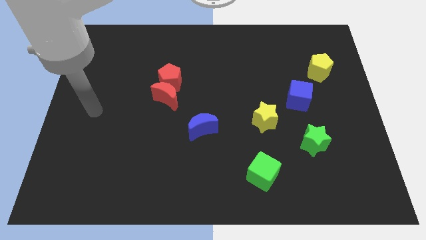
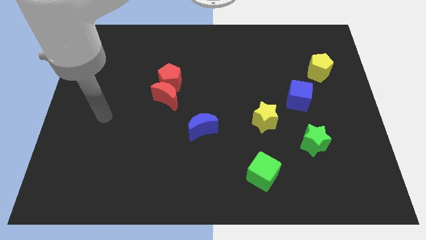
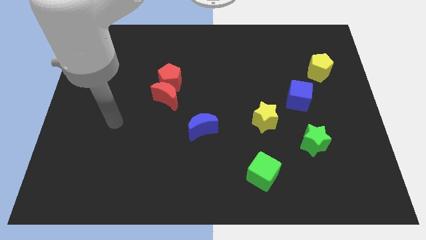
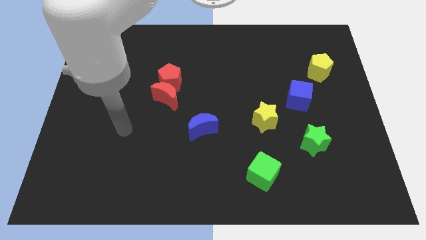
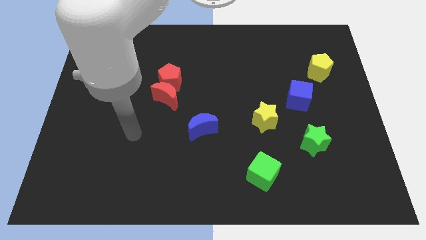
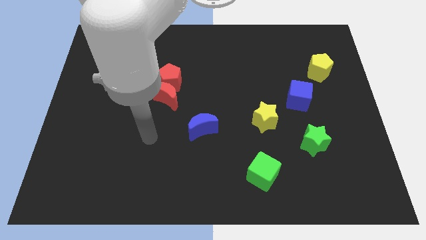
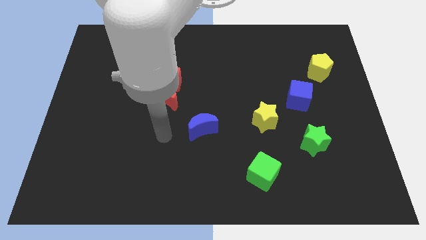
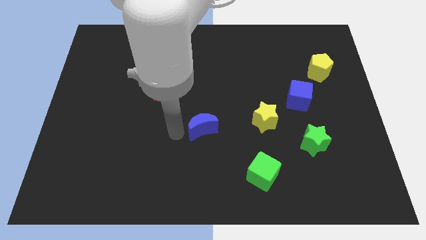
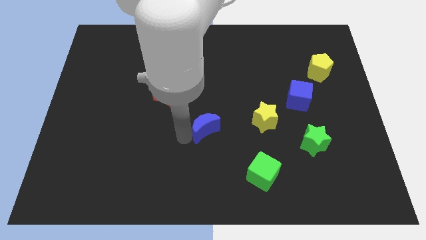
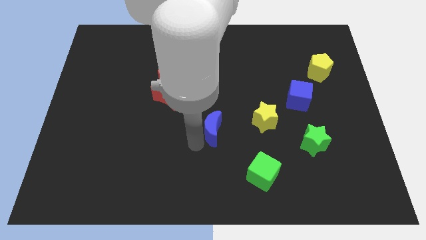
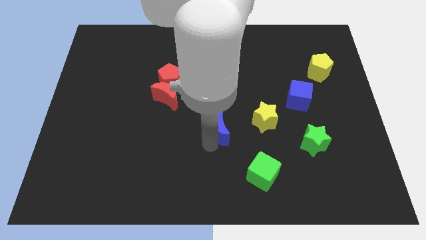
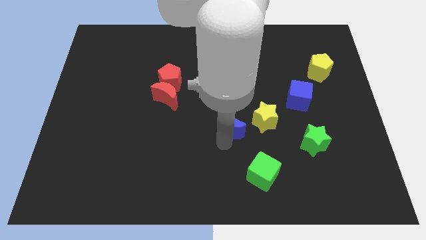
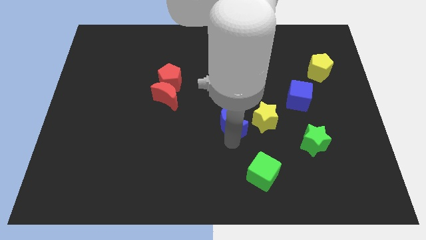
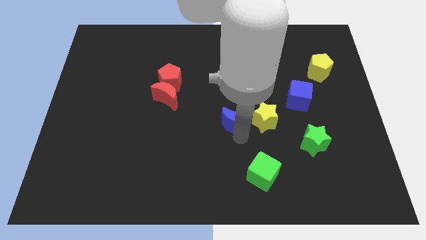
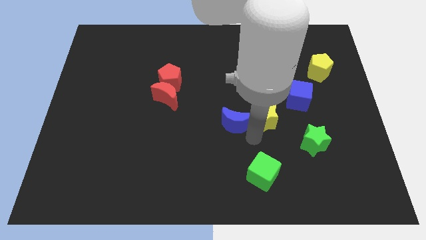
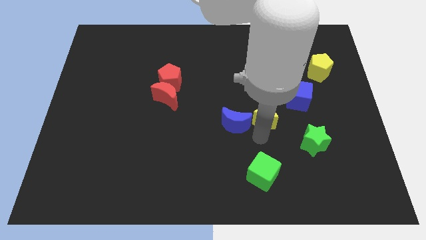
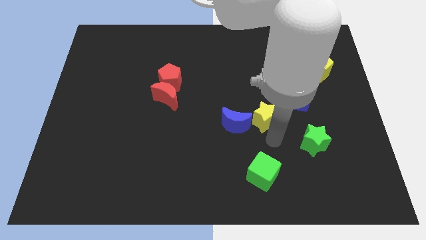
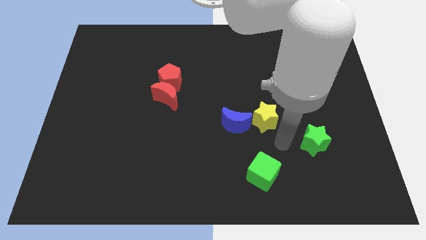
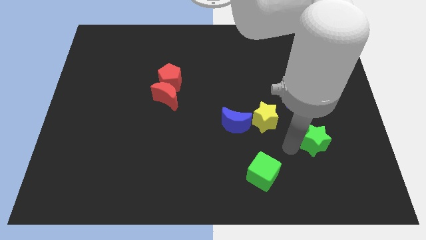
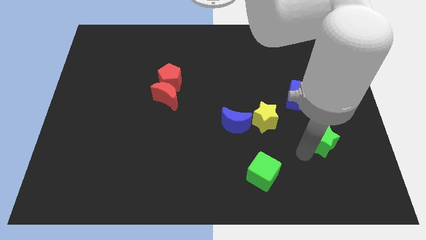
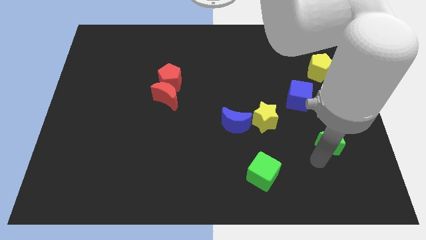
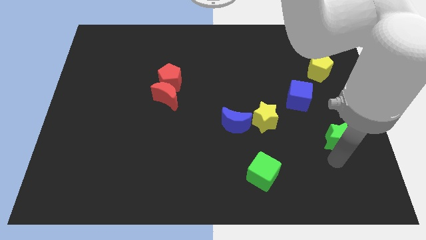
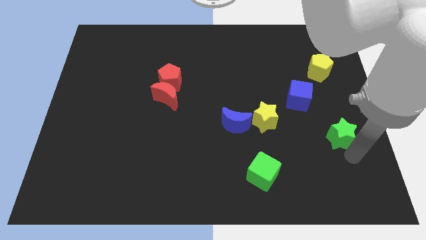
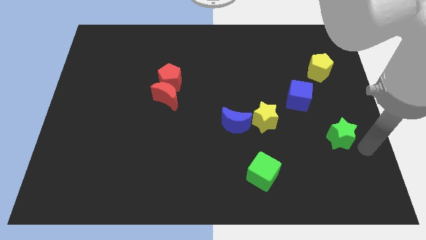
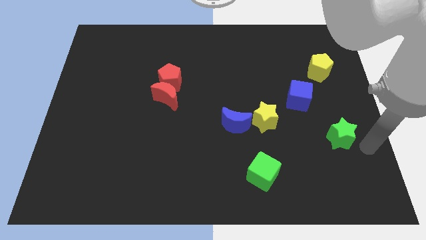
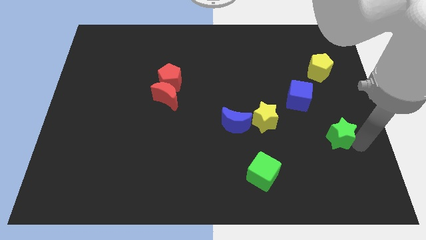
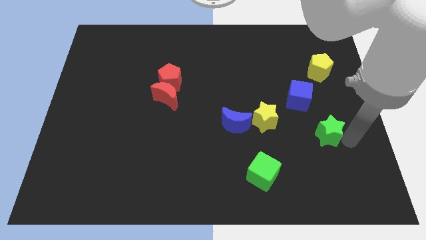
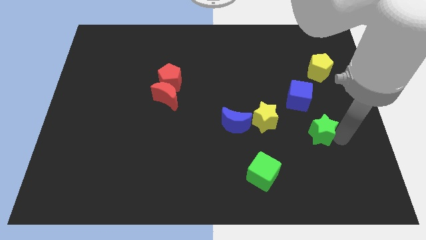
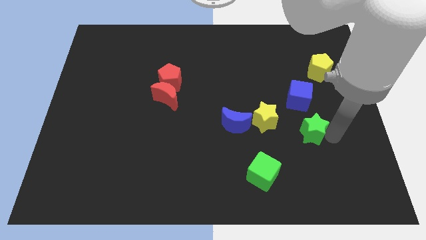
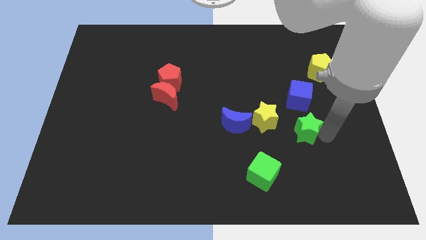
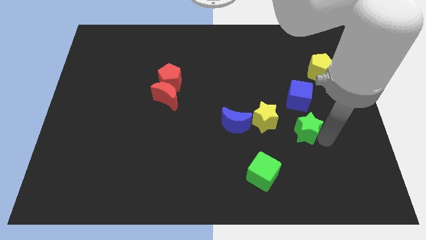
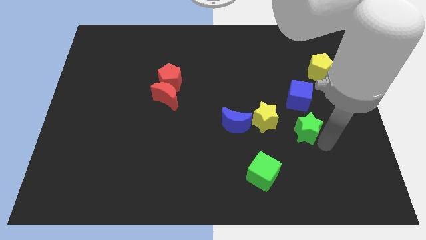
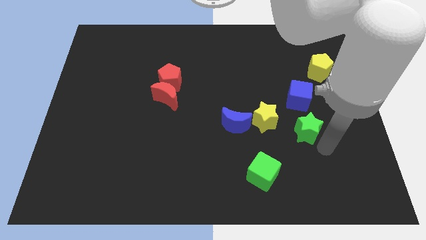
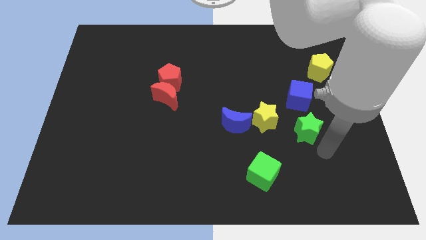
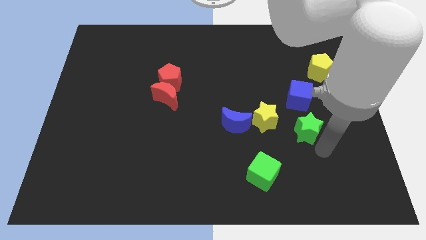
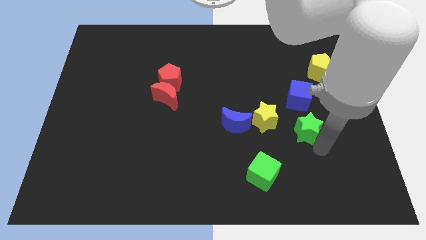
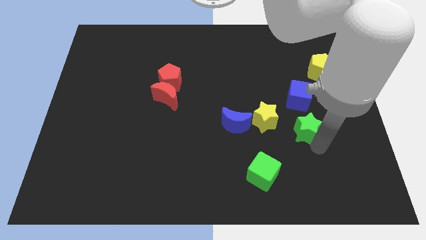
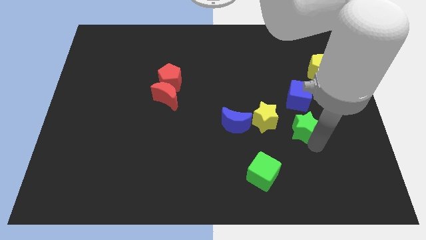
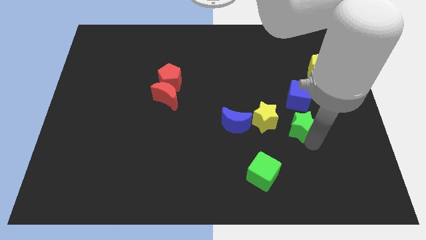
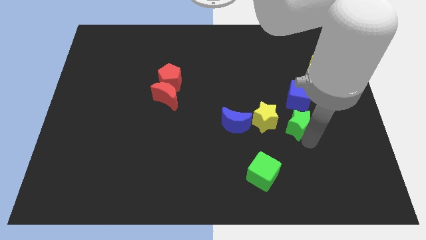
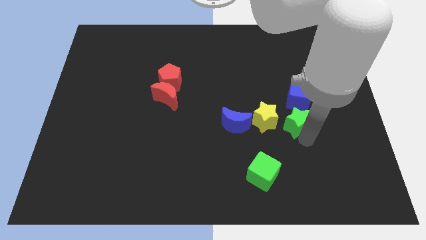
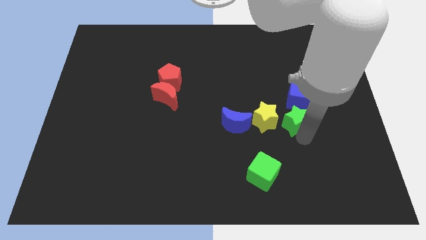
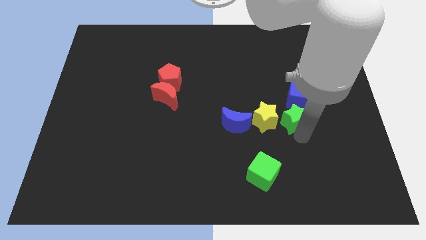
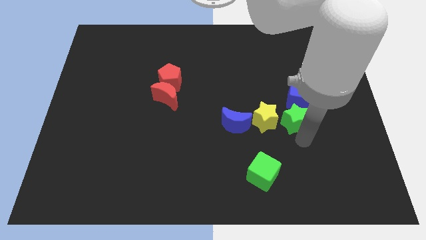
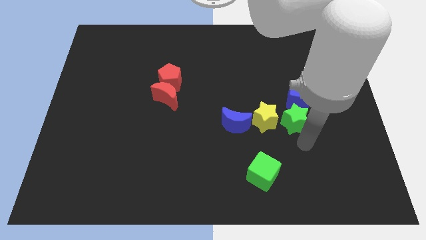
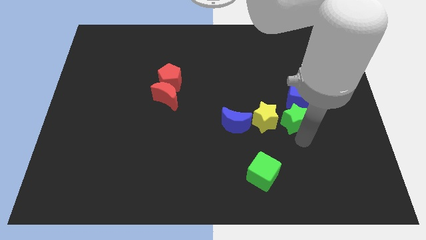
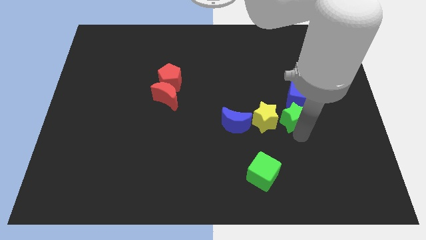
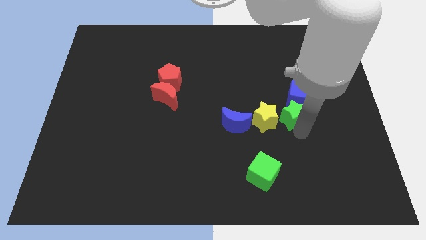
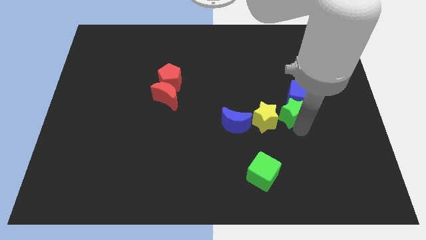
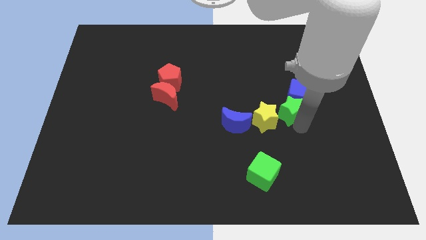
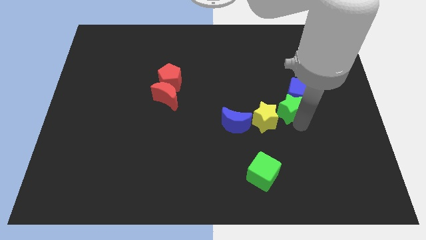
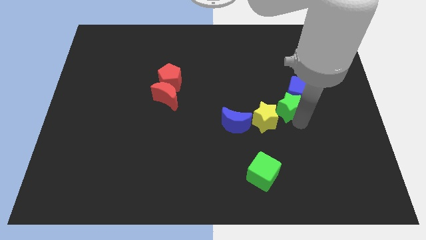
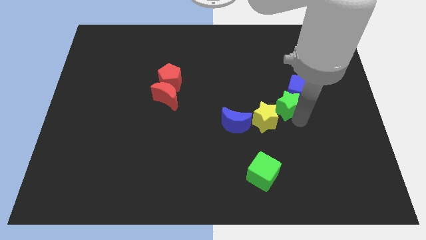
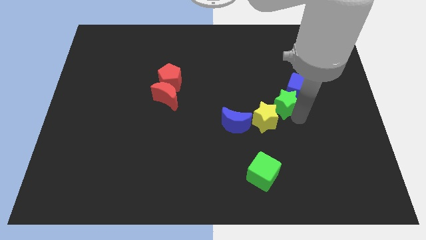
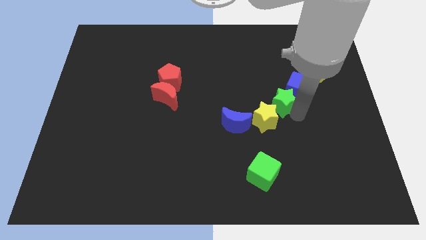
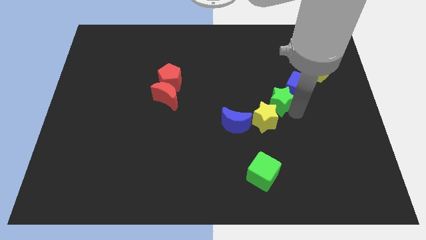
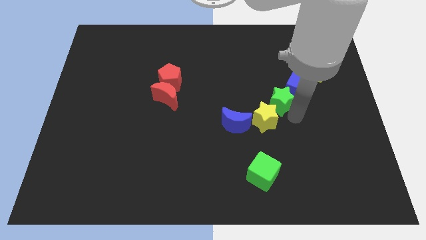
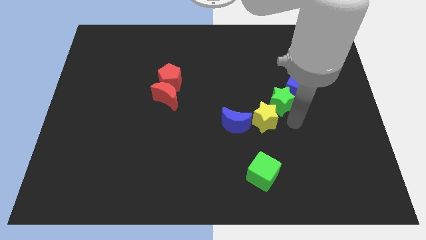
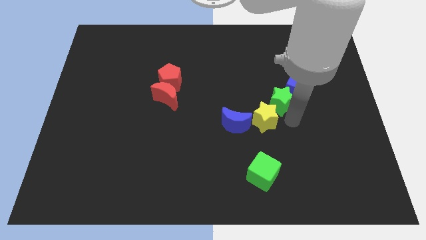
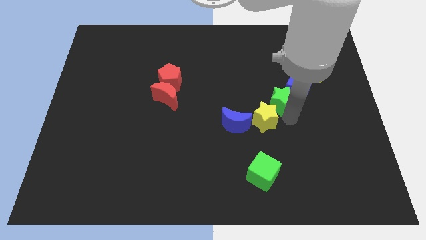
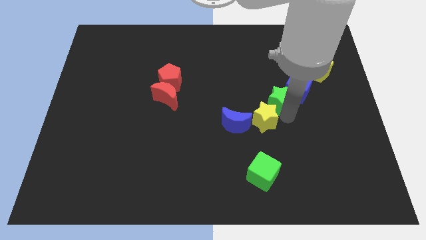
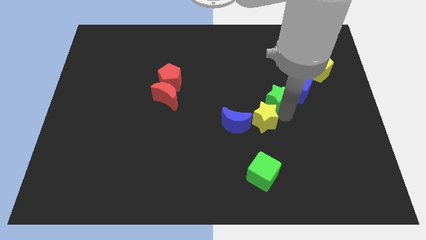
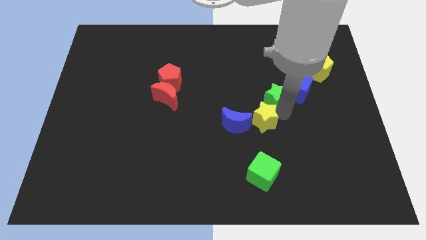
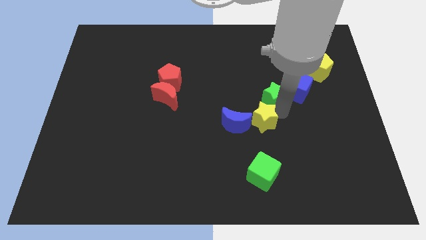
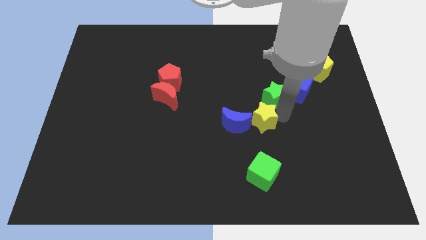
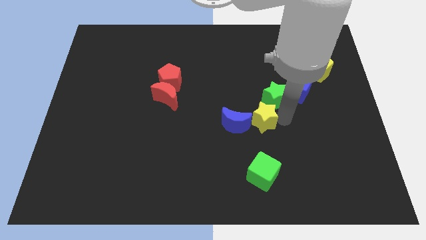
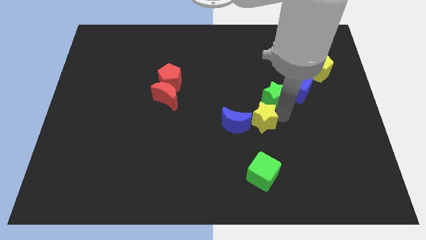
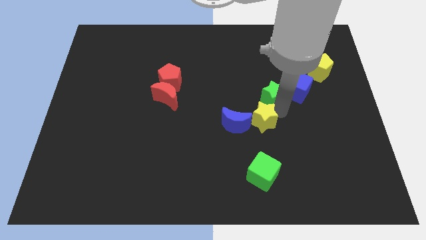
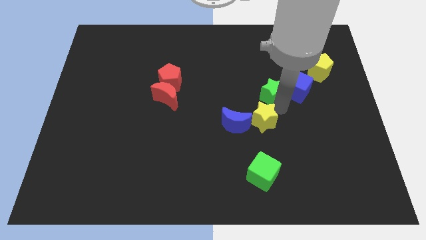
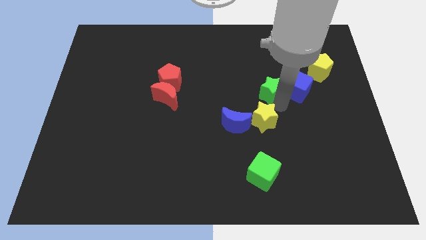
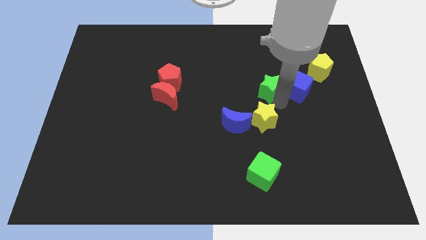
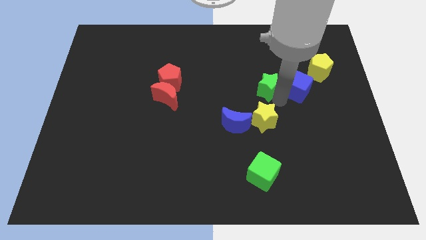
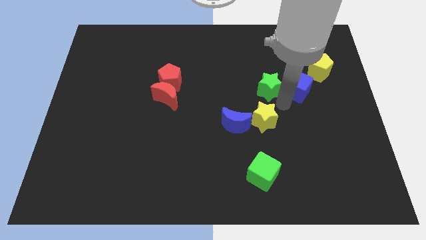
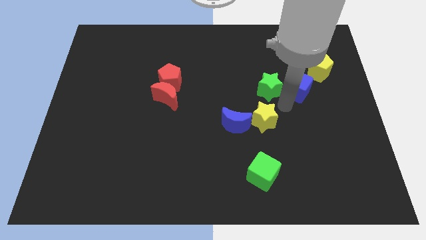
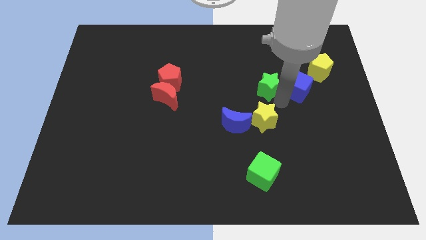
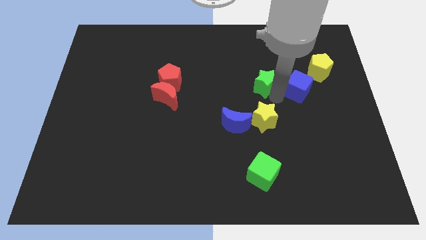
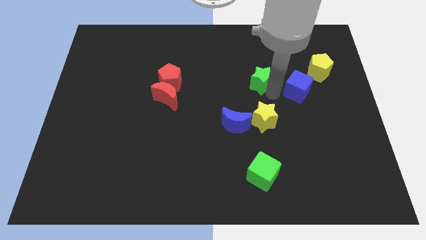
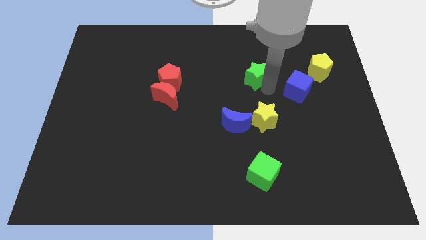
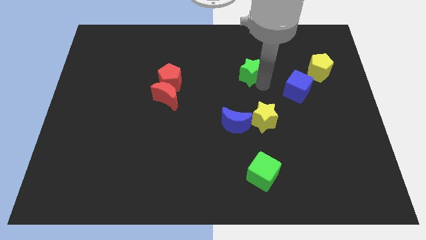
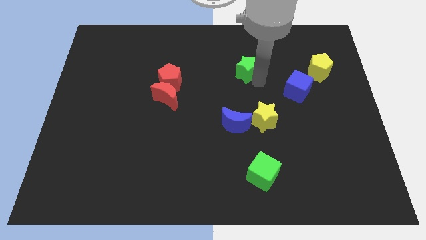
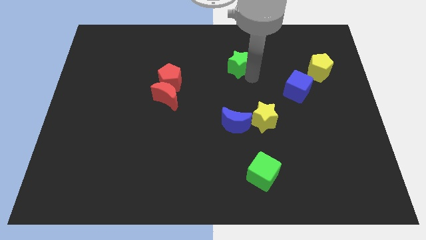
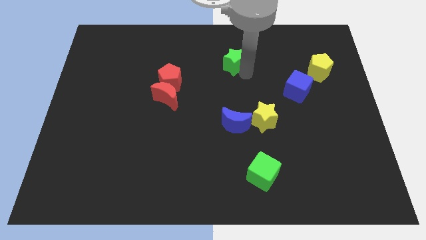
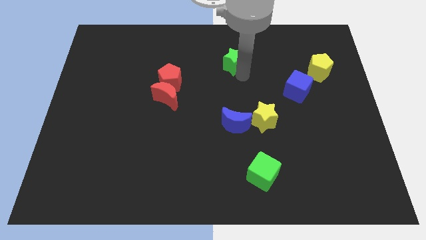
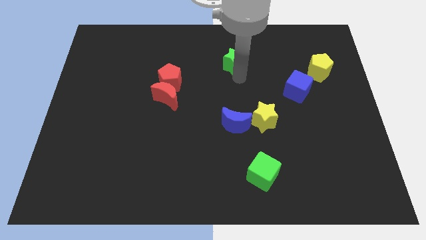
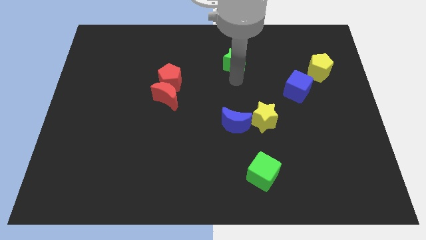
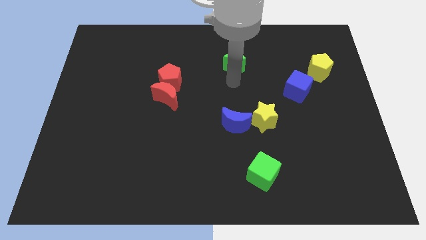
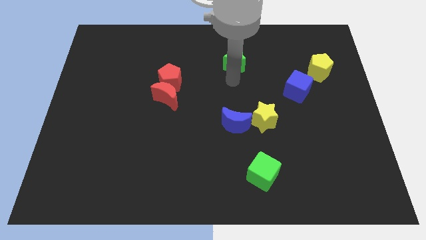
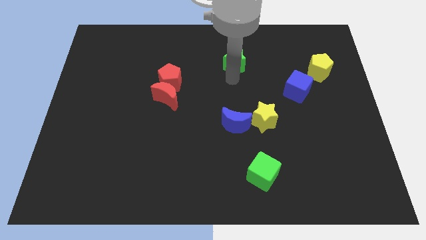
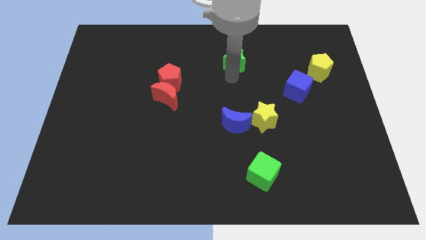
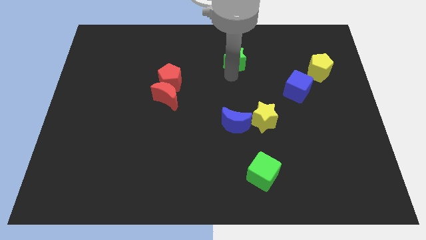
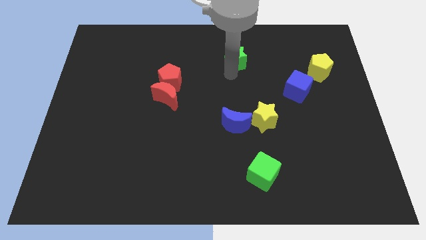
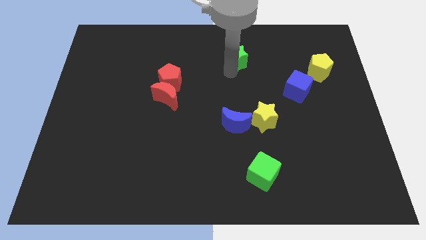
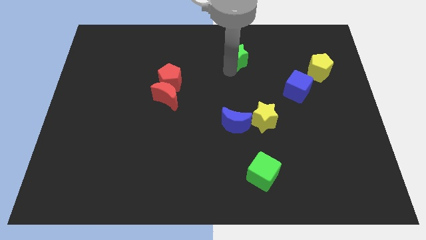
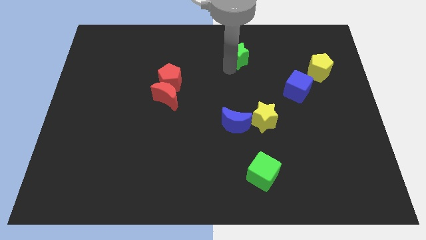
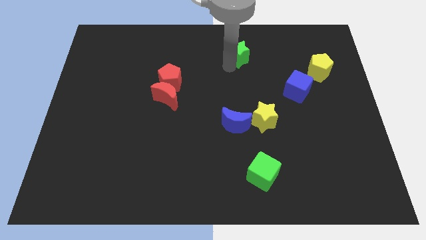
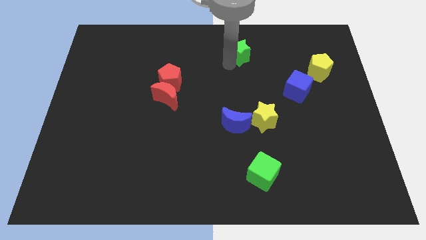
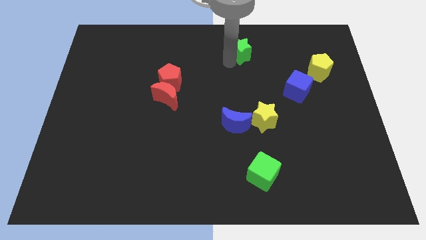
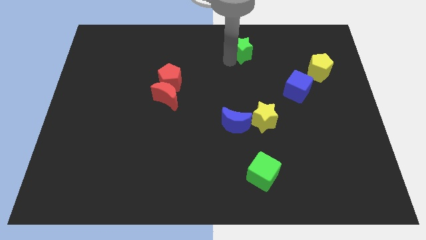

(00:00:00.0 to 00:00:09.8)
slide the green star to the top
